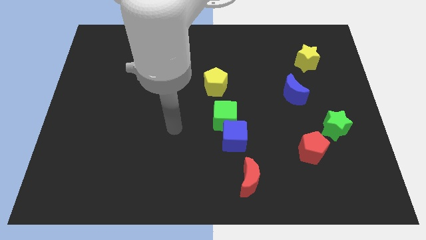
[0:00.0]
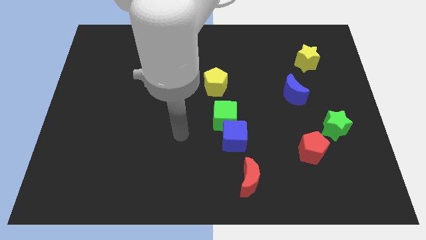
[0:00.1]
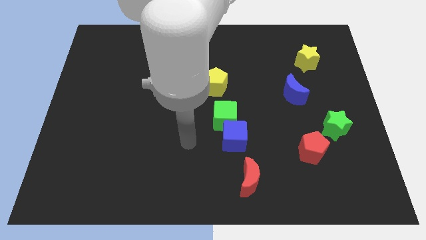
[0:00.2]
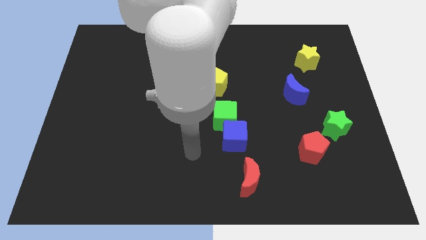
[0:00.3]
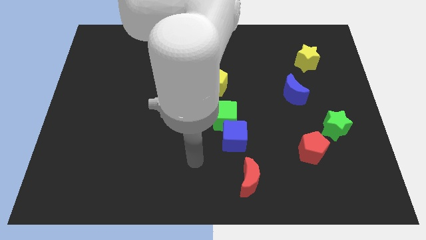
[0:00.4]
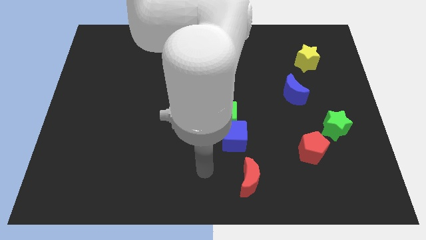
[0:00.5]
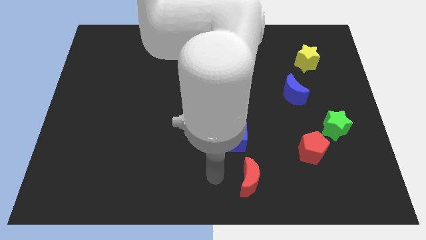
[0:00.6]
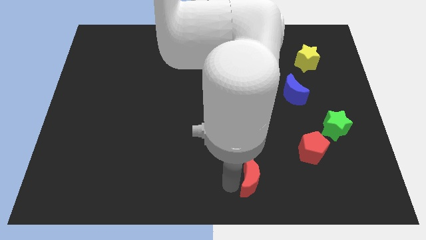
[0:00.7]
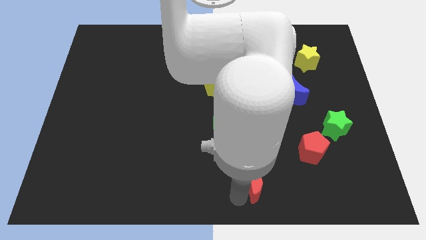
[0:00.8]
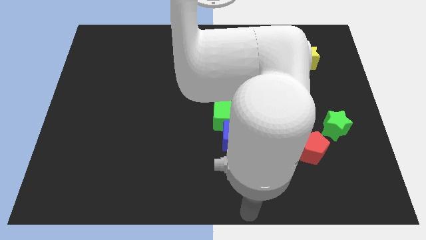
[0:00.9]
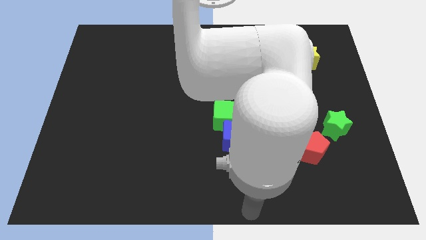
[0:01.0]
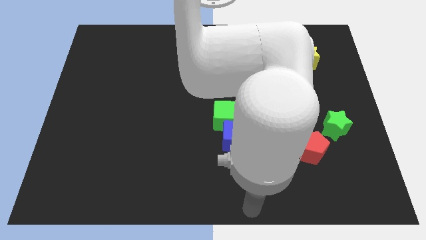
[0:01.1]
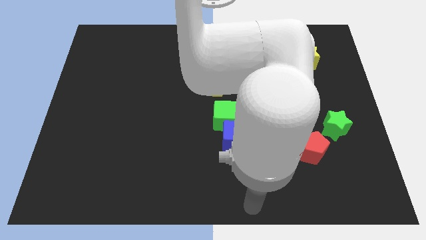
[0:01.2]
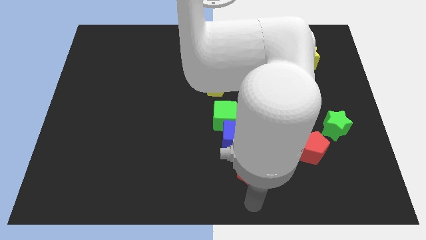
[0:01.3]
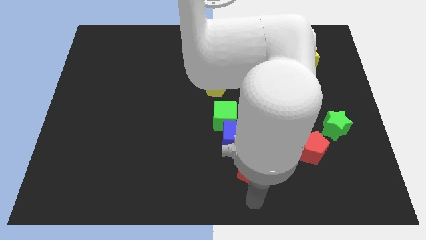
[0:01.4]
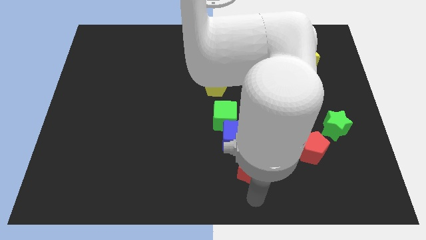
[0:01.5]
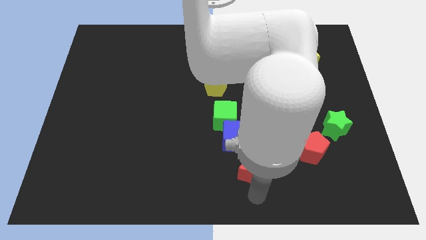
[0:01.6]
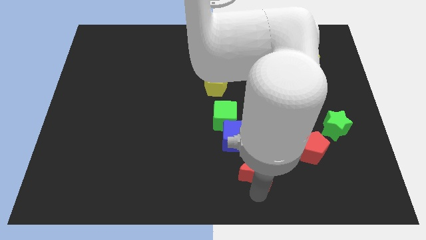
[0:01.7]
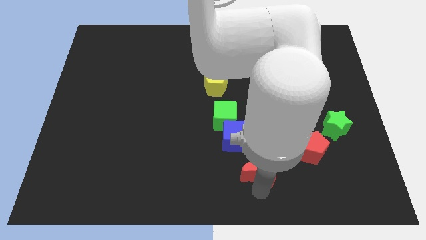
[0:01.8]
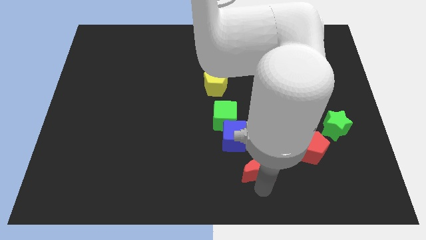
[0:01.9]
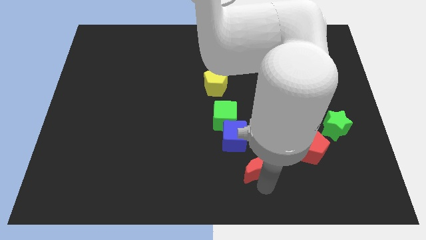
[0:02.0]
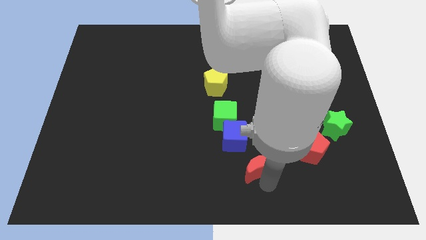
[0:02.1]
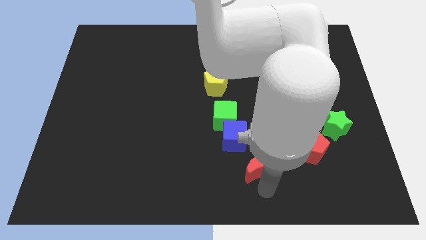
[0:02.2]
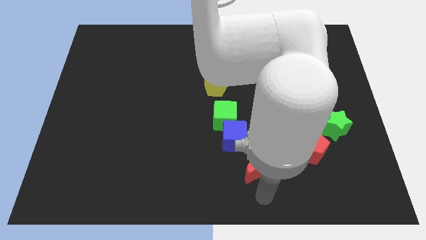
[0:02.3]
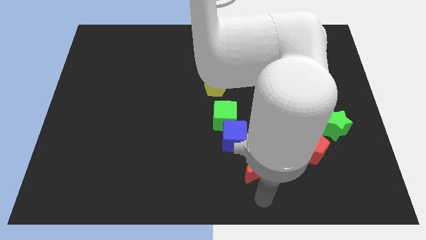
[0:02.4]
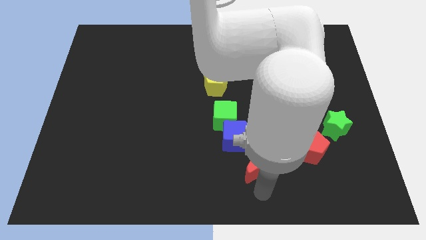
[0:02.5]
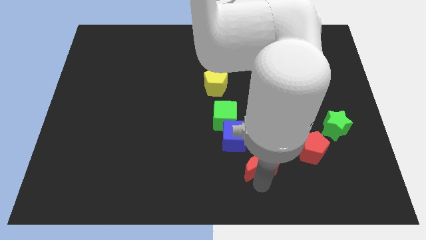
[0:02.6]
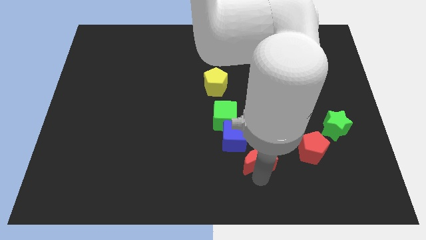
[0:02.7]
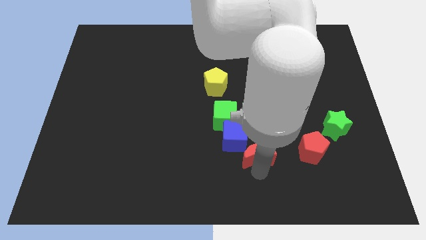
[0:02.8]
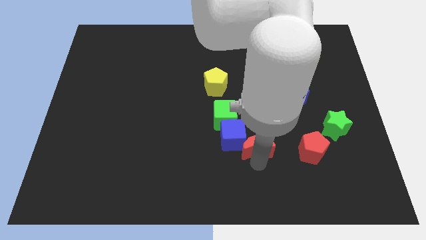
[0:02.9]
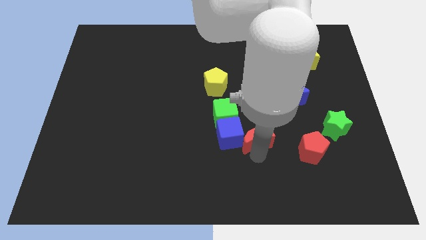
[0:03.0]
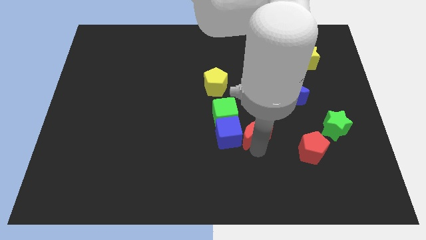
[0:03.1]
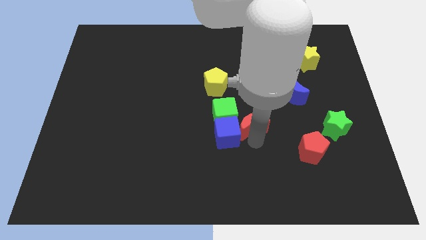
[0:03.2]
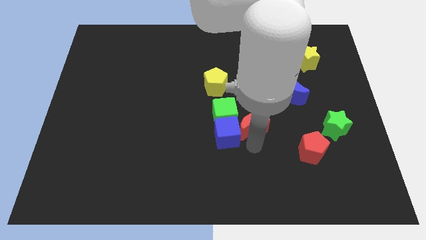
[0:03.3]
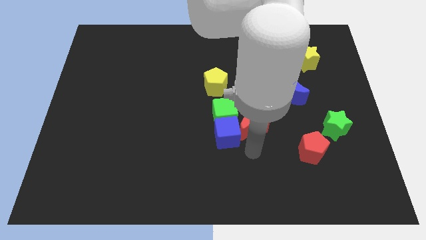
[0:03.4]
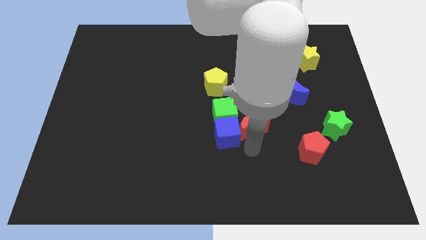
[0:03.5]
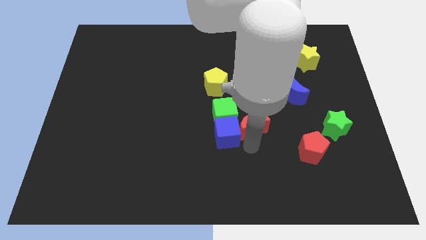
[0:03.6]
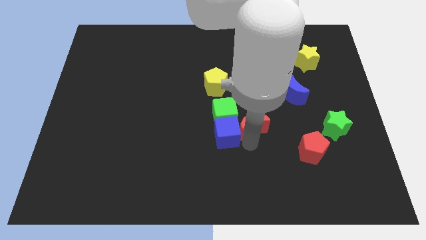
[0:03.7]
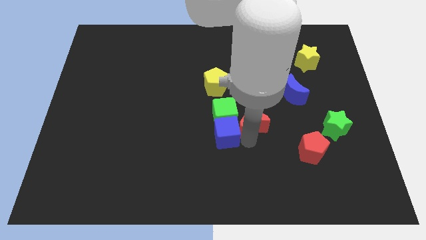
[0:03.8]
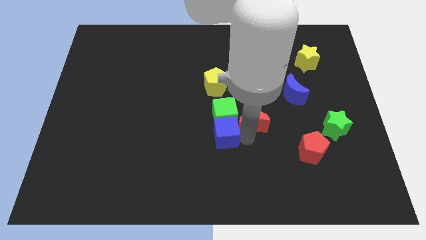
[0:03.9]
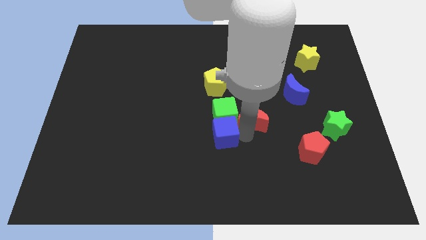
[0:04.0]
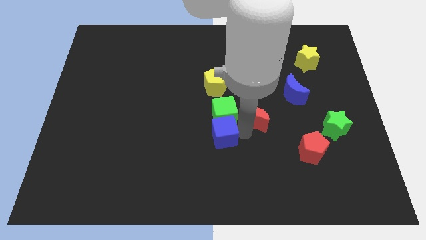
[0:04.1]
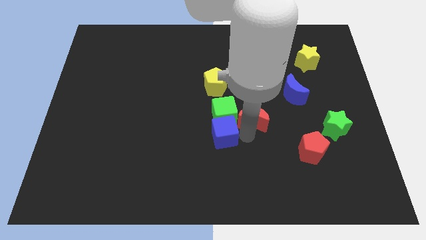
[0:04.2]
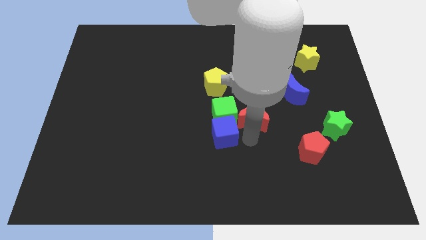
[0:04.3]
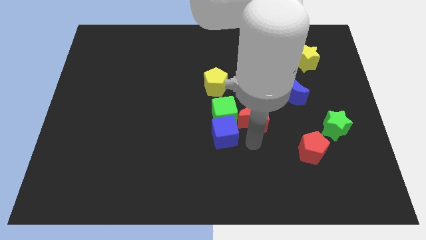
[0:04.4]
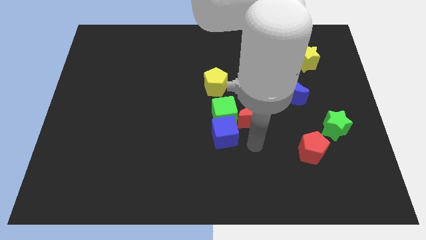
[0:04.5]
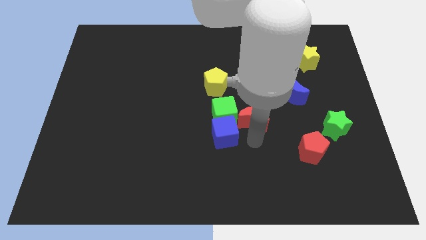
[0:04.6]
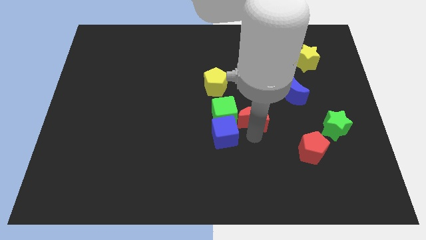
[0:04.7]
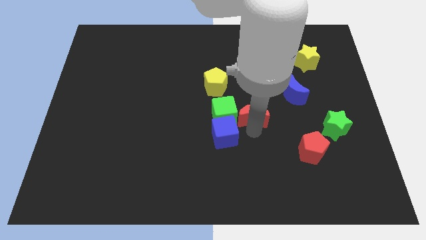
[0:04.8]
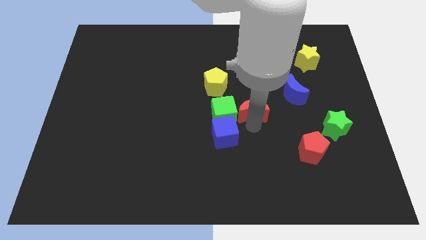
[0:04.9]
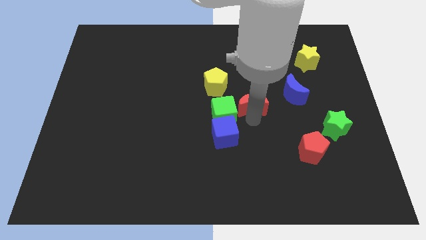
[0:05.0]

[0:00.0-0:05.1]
push the red moon to the left side of the blue moon

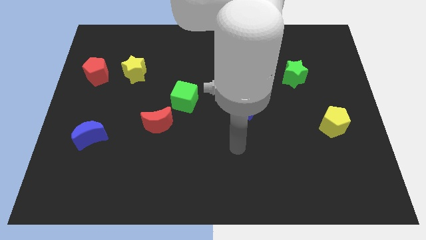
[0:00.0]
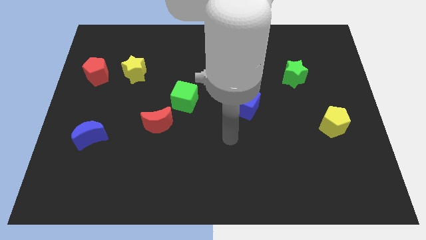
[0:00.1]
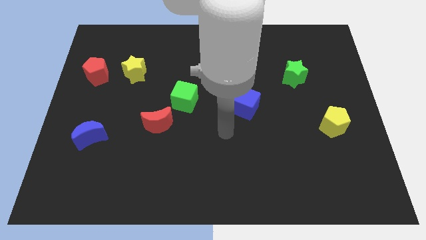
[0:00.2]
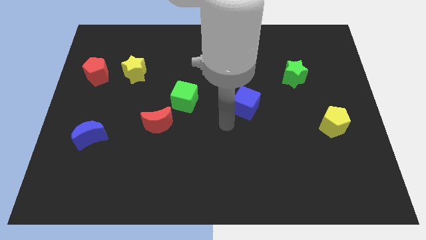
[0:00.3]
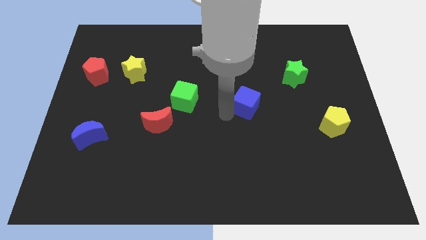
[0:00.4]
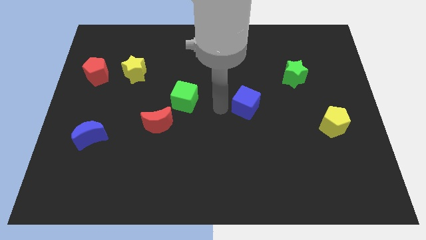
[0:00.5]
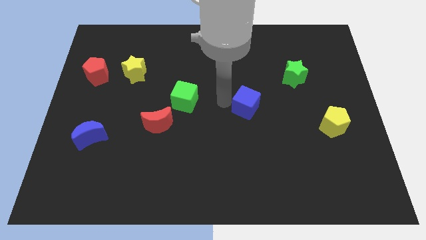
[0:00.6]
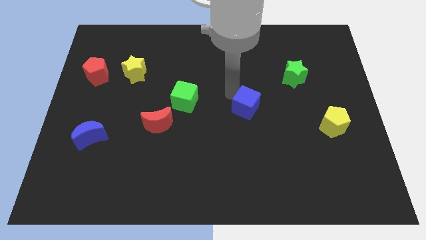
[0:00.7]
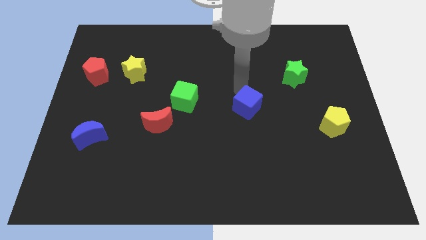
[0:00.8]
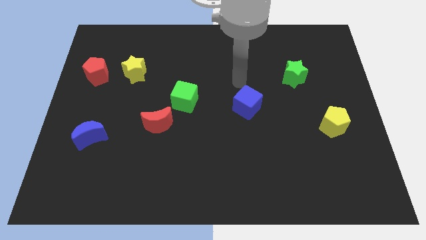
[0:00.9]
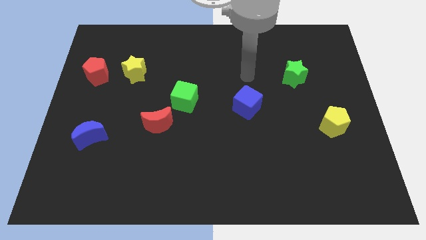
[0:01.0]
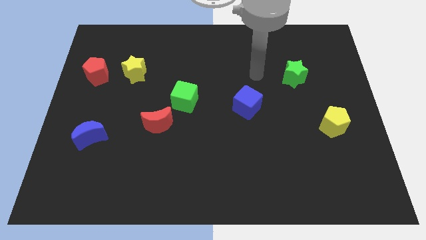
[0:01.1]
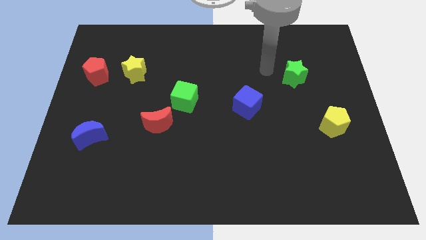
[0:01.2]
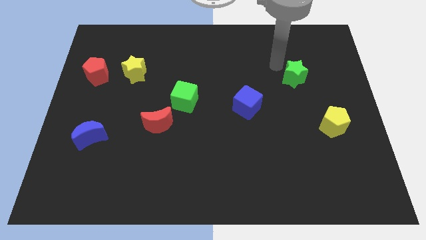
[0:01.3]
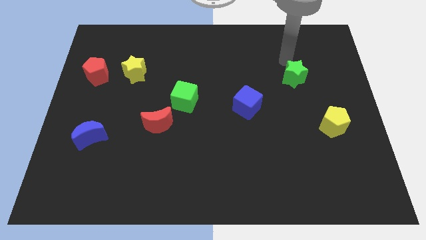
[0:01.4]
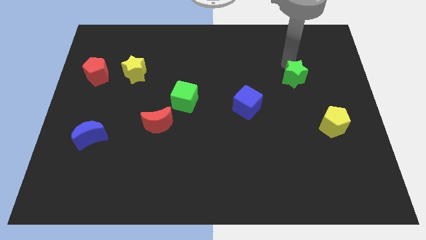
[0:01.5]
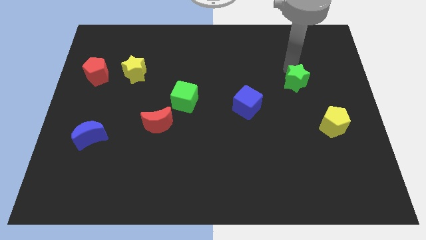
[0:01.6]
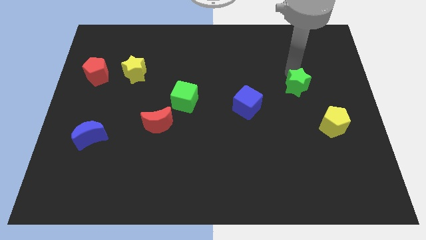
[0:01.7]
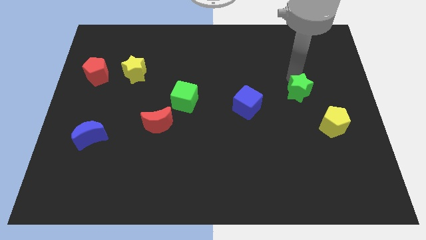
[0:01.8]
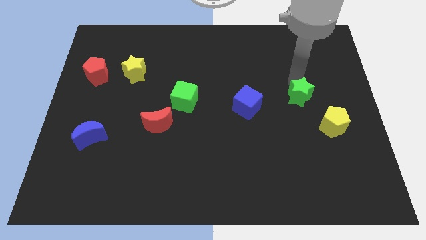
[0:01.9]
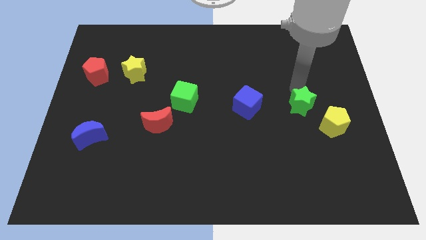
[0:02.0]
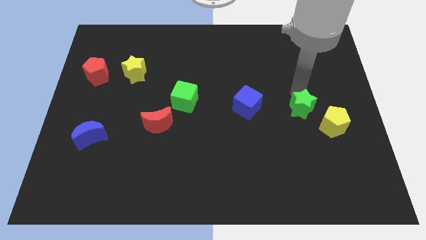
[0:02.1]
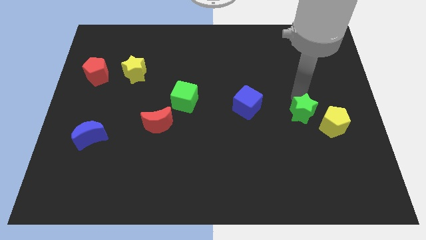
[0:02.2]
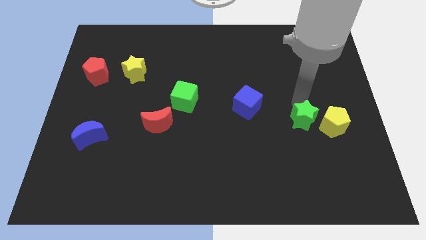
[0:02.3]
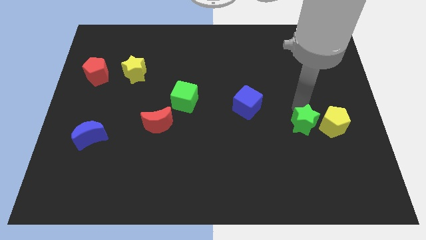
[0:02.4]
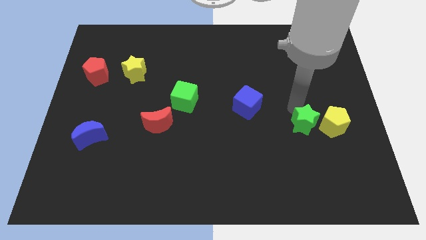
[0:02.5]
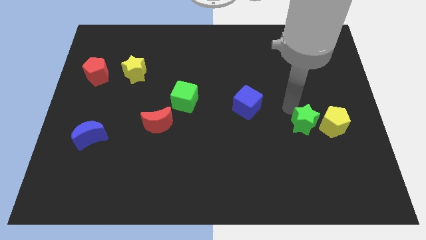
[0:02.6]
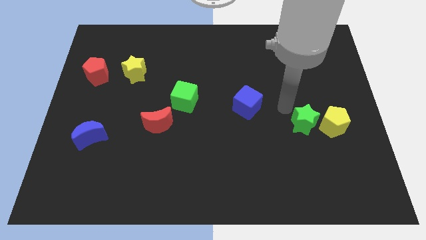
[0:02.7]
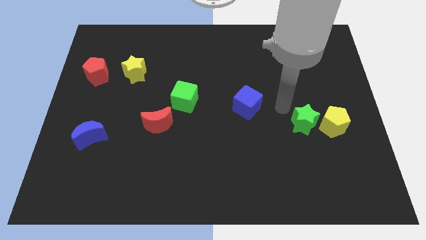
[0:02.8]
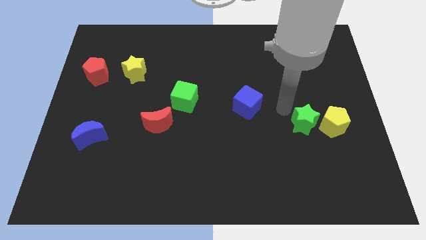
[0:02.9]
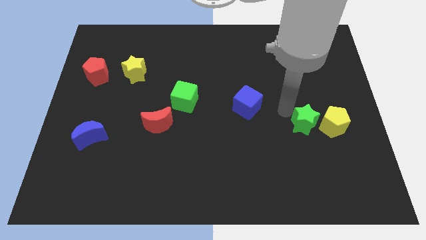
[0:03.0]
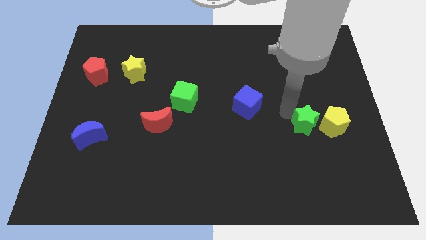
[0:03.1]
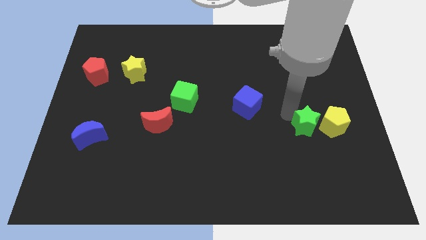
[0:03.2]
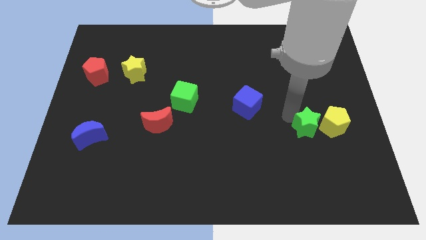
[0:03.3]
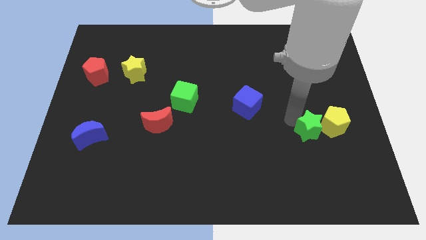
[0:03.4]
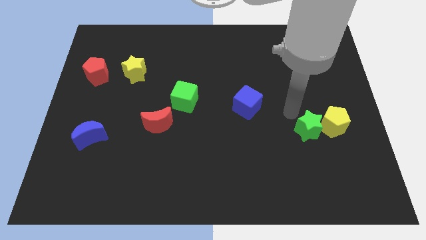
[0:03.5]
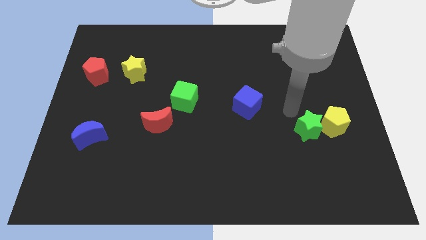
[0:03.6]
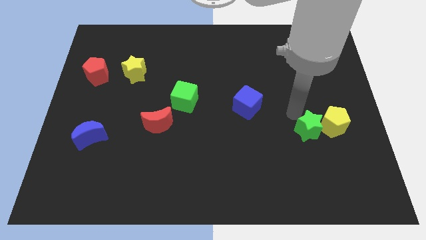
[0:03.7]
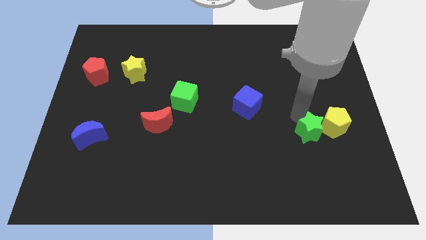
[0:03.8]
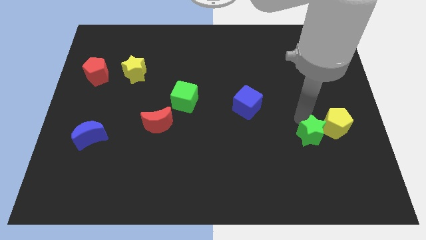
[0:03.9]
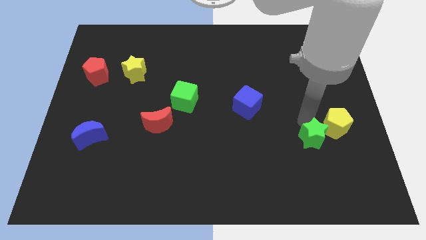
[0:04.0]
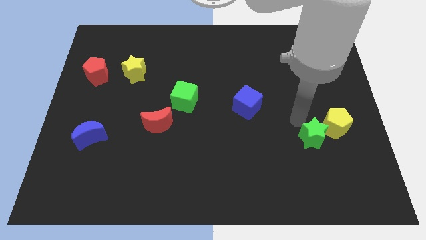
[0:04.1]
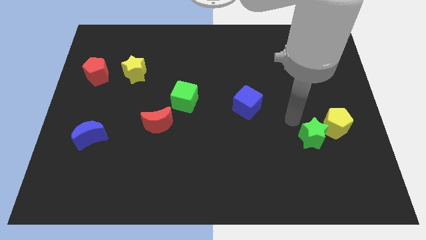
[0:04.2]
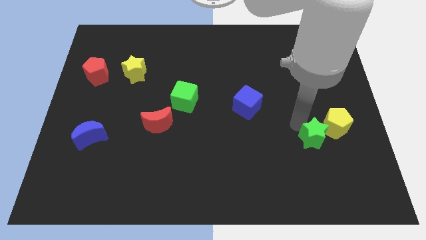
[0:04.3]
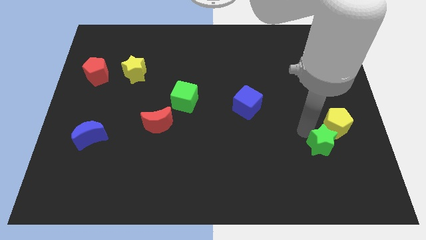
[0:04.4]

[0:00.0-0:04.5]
put the green star below the yellow pentagon
